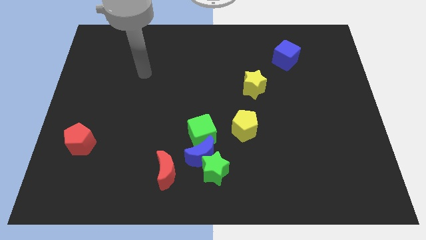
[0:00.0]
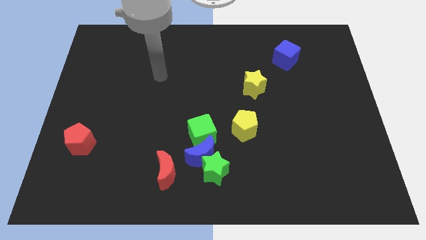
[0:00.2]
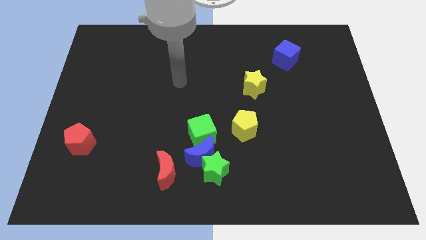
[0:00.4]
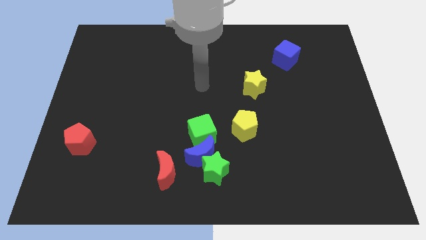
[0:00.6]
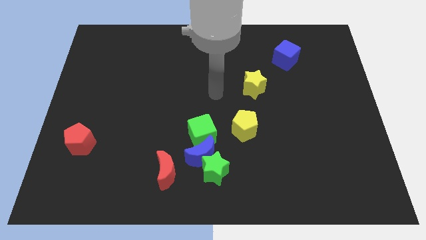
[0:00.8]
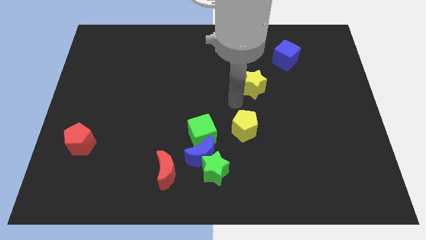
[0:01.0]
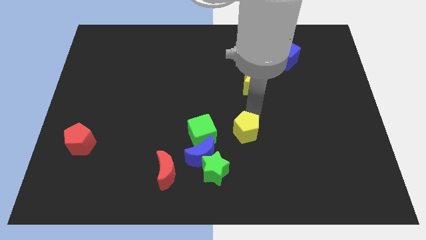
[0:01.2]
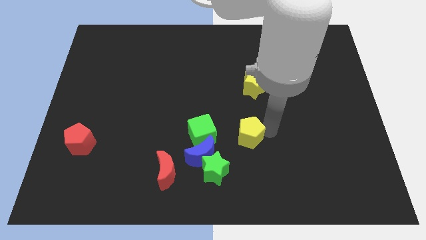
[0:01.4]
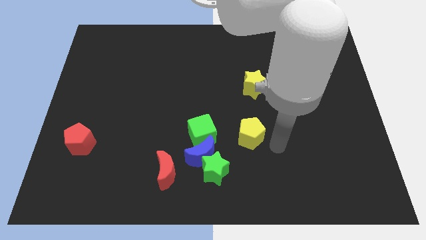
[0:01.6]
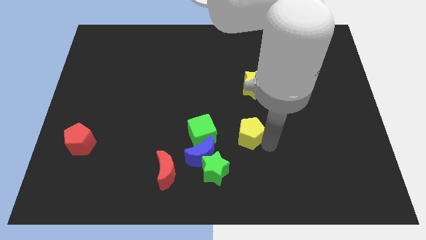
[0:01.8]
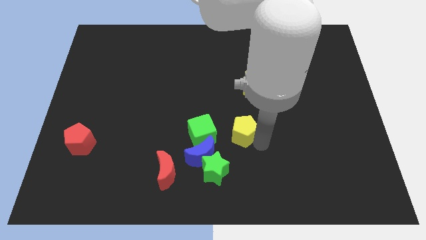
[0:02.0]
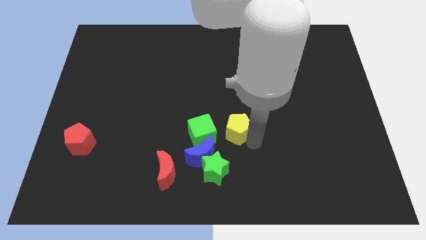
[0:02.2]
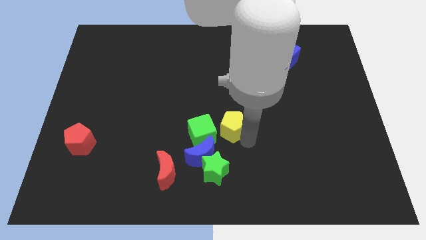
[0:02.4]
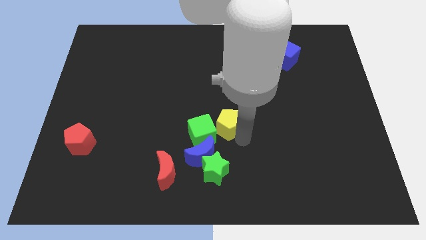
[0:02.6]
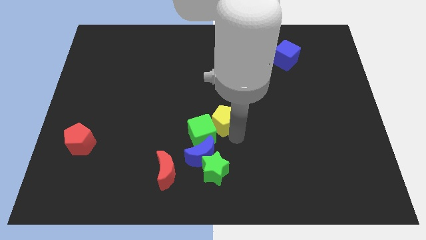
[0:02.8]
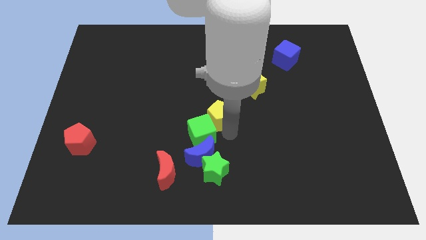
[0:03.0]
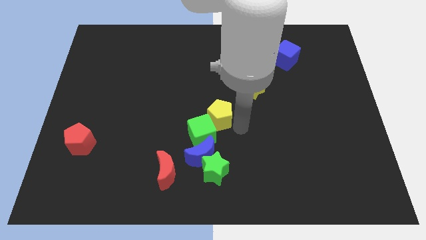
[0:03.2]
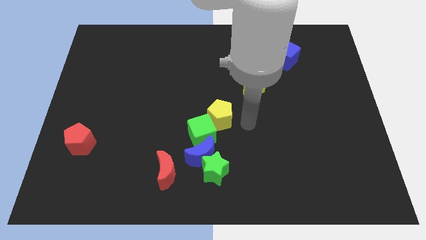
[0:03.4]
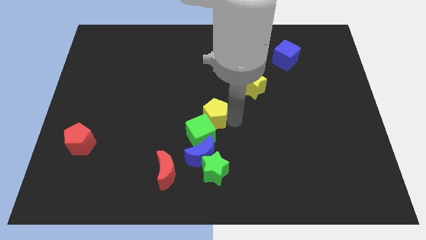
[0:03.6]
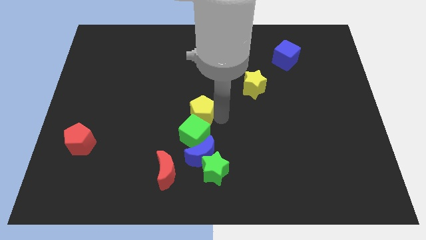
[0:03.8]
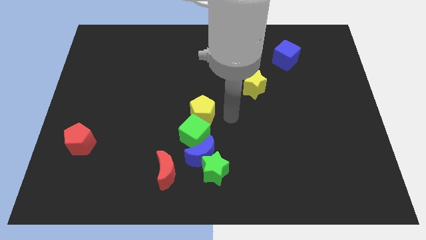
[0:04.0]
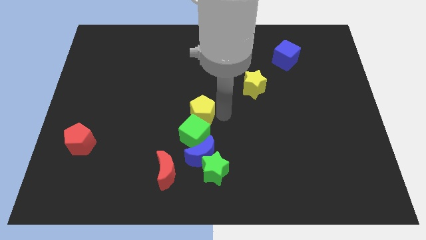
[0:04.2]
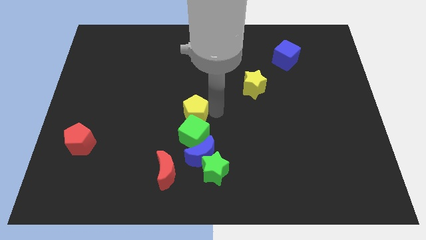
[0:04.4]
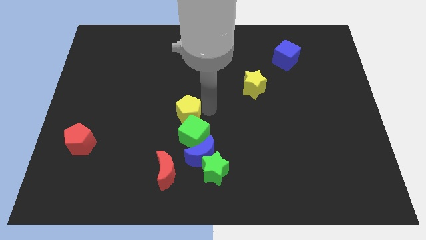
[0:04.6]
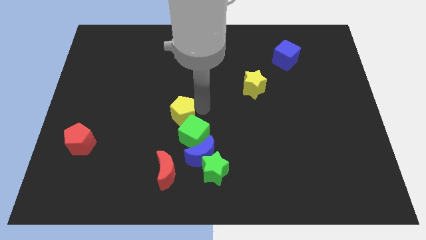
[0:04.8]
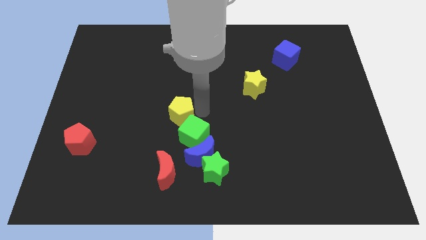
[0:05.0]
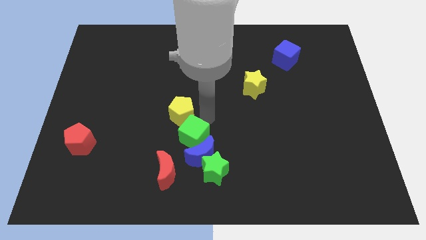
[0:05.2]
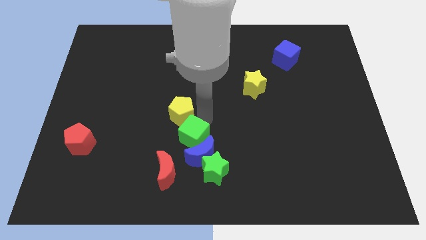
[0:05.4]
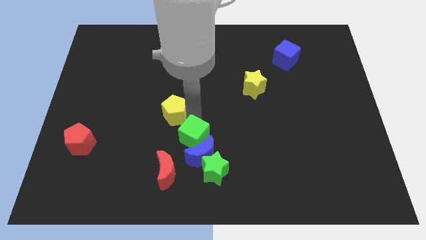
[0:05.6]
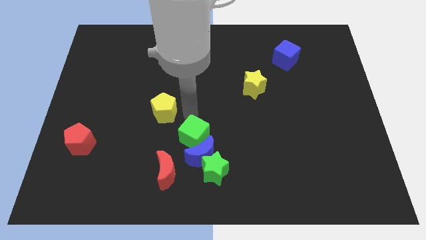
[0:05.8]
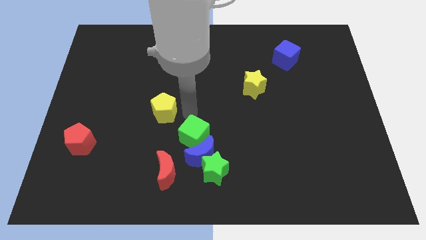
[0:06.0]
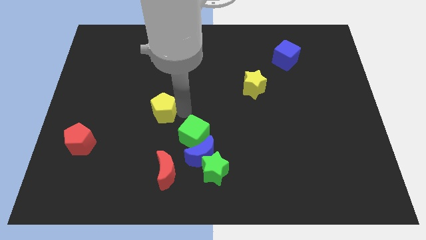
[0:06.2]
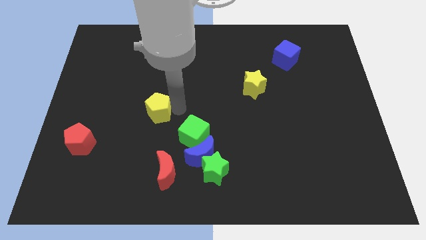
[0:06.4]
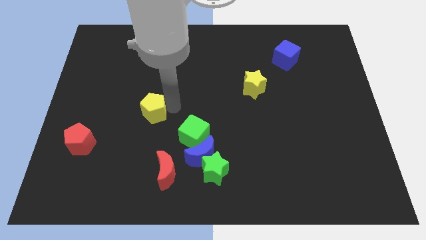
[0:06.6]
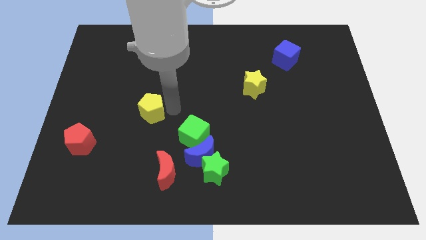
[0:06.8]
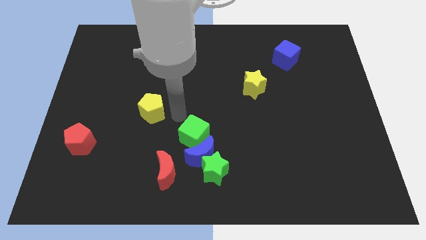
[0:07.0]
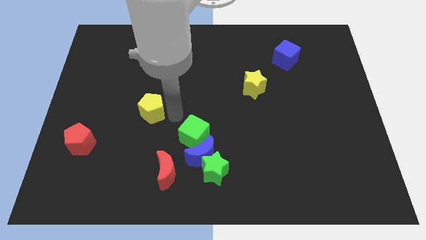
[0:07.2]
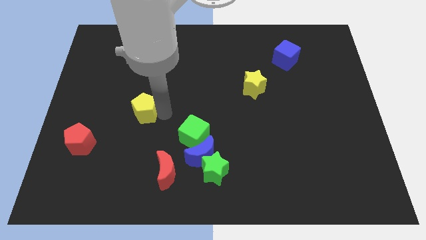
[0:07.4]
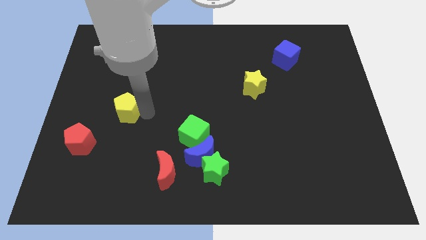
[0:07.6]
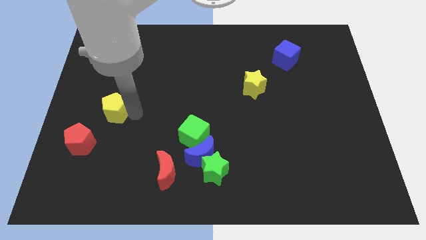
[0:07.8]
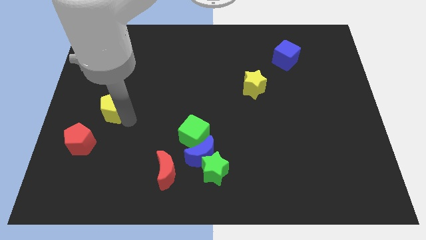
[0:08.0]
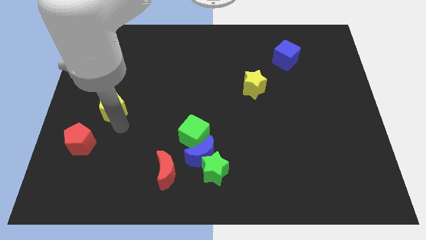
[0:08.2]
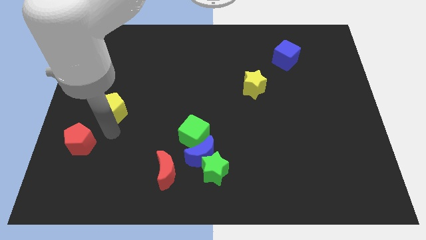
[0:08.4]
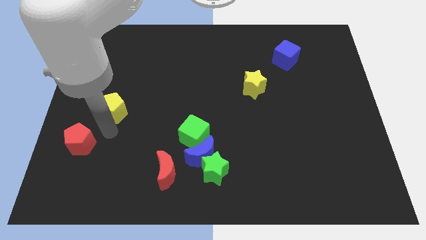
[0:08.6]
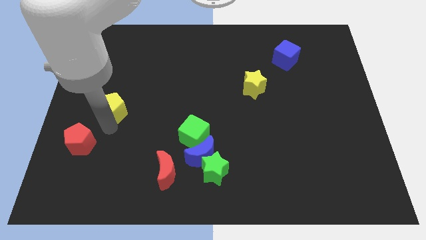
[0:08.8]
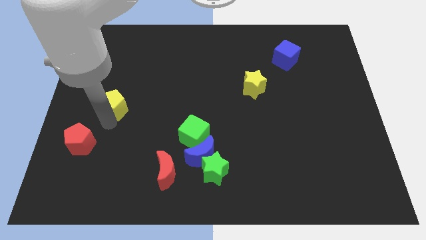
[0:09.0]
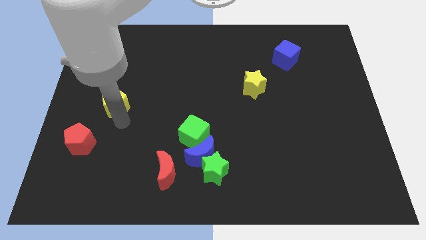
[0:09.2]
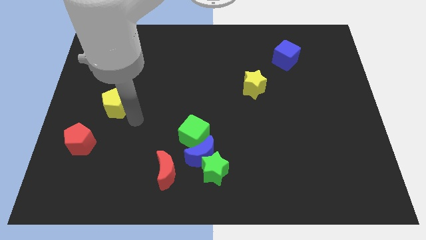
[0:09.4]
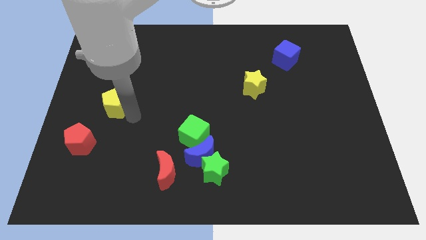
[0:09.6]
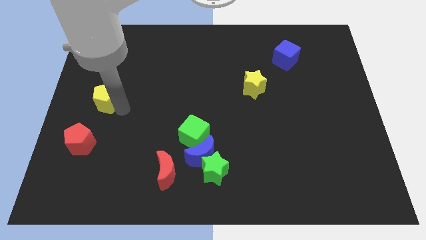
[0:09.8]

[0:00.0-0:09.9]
push the yellow pentagon to the left side

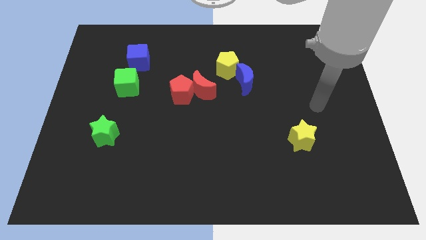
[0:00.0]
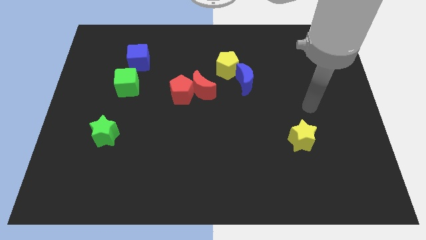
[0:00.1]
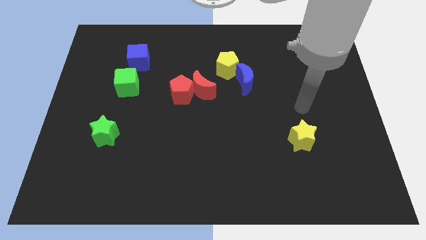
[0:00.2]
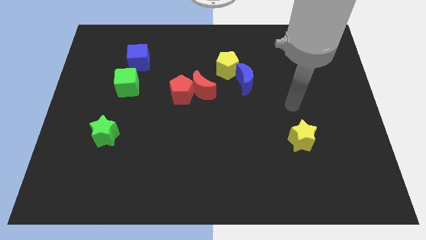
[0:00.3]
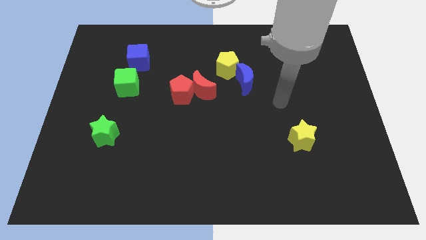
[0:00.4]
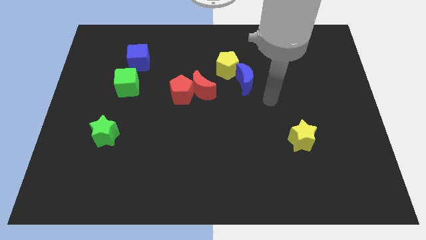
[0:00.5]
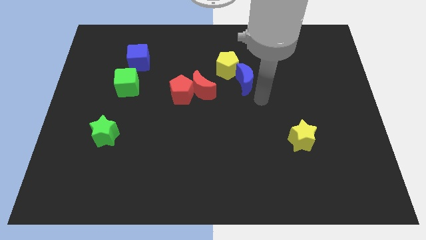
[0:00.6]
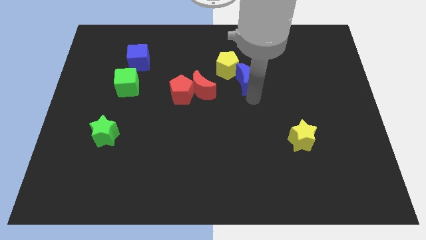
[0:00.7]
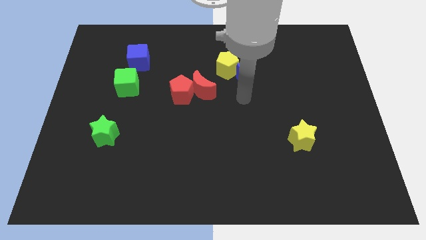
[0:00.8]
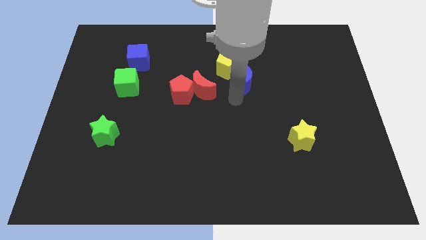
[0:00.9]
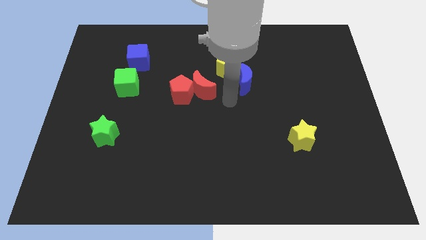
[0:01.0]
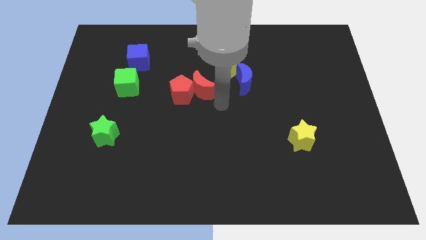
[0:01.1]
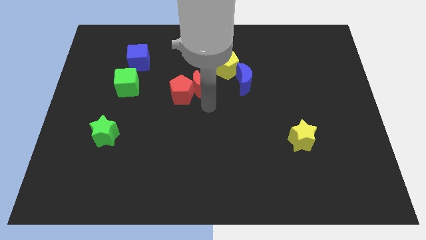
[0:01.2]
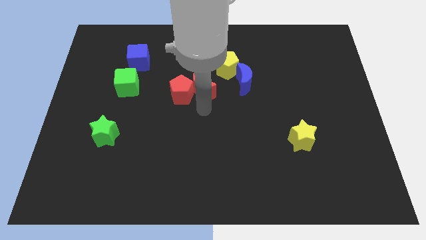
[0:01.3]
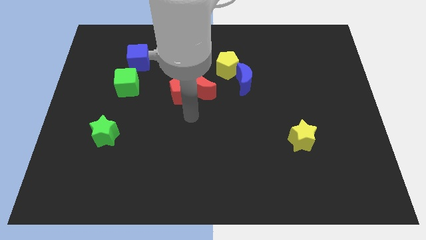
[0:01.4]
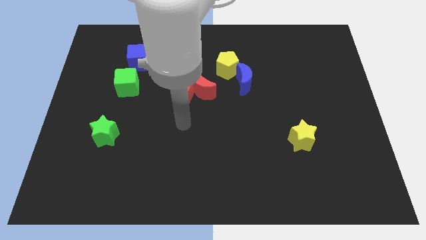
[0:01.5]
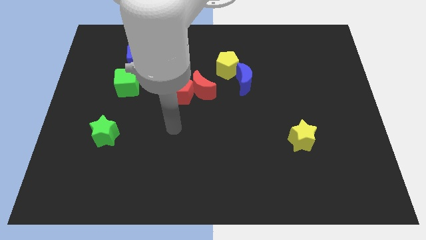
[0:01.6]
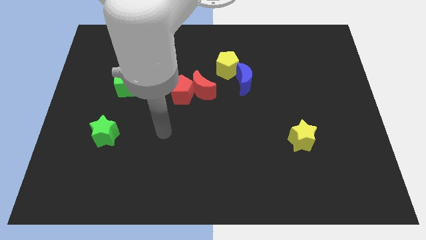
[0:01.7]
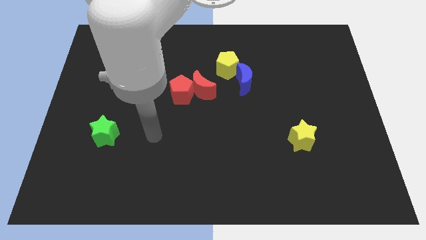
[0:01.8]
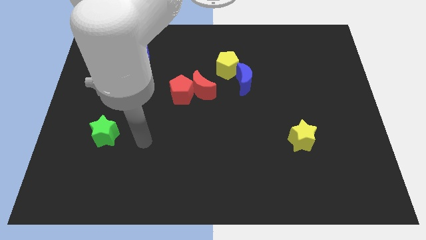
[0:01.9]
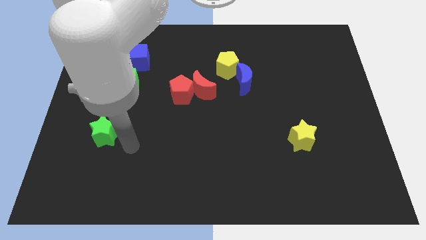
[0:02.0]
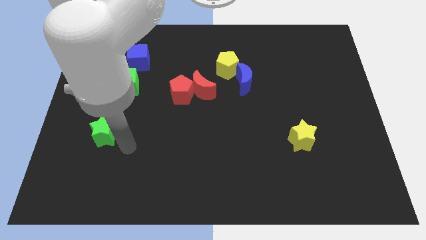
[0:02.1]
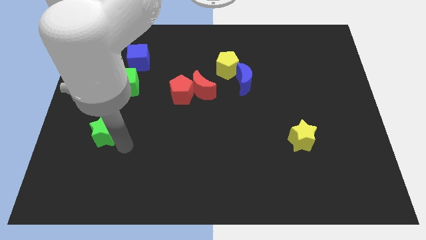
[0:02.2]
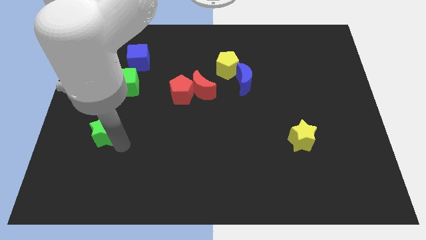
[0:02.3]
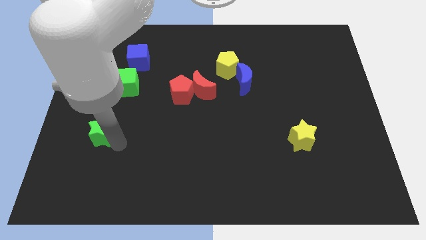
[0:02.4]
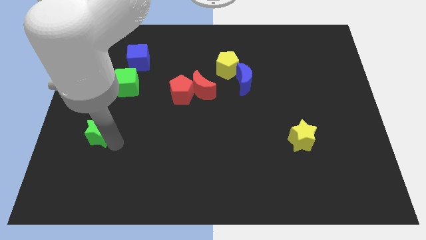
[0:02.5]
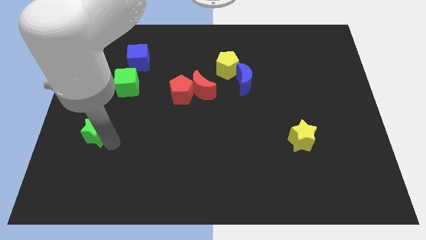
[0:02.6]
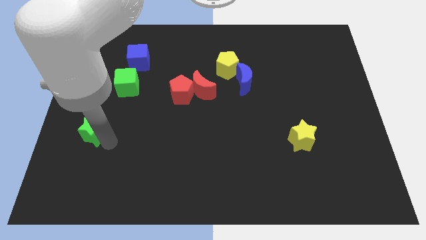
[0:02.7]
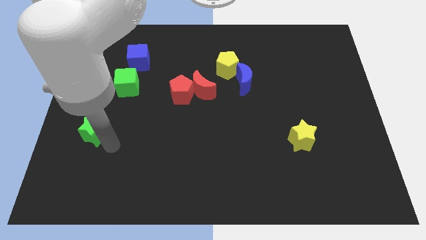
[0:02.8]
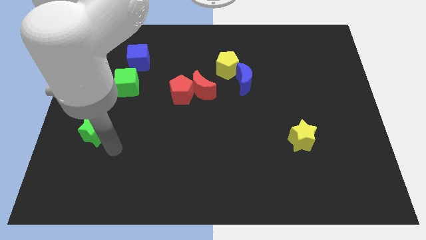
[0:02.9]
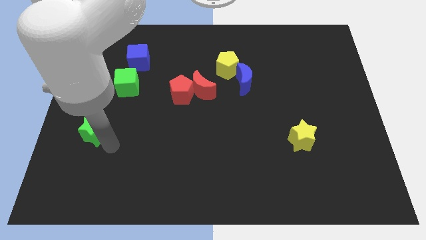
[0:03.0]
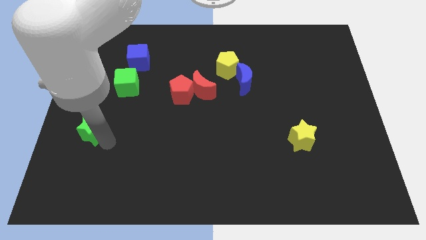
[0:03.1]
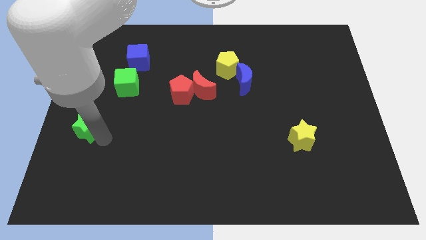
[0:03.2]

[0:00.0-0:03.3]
move the green star to the left side
